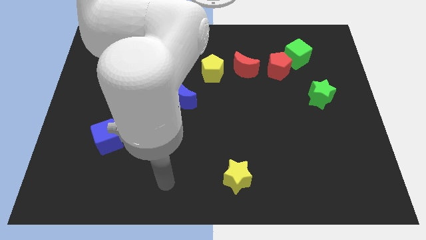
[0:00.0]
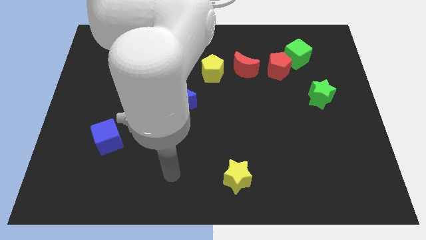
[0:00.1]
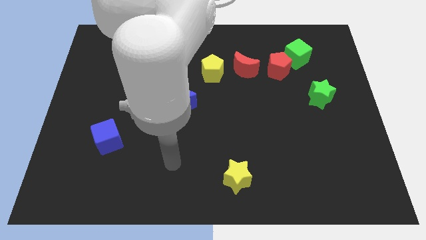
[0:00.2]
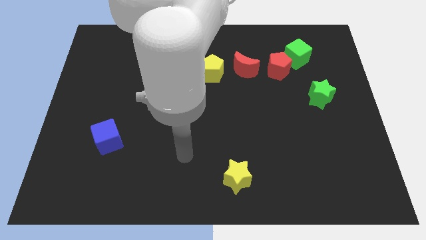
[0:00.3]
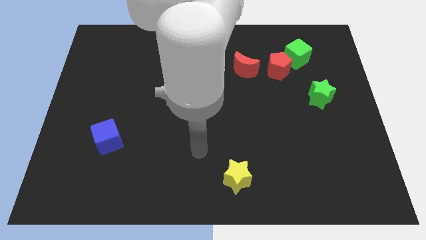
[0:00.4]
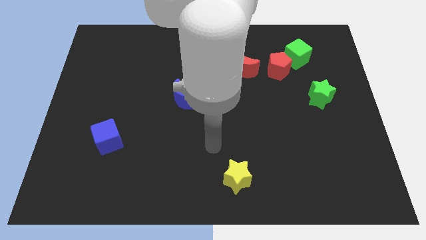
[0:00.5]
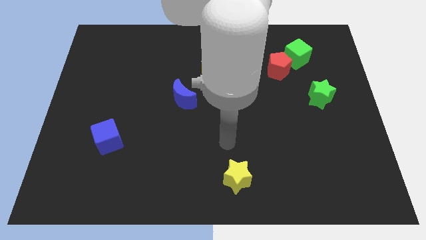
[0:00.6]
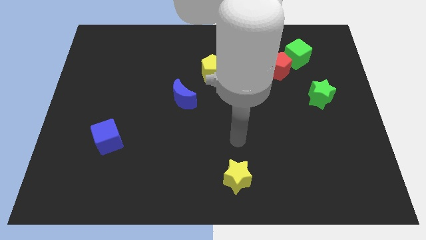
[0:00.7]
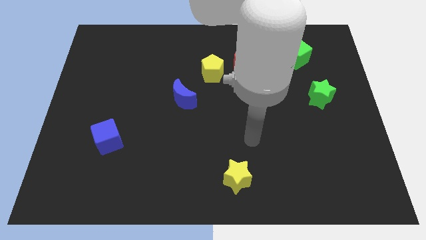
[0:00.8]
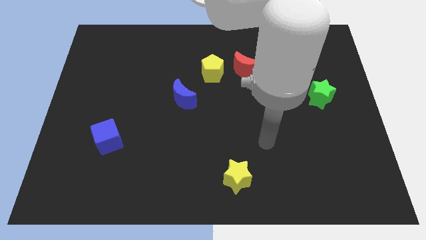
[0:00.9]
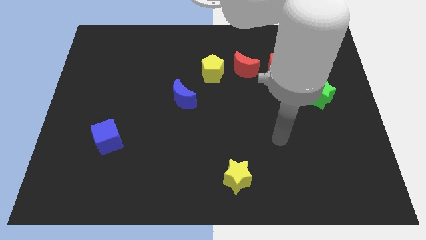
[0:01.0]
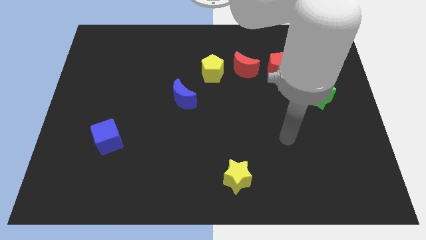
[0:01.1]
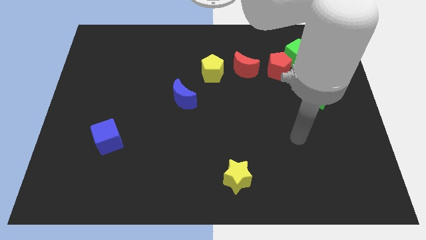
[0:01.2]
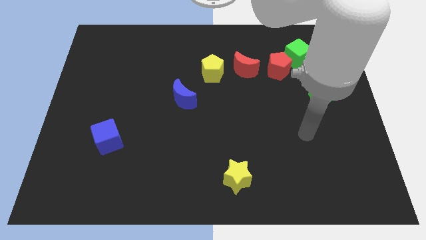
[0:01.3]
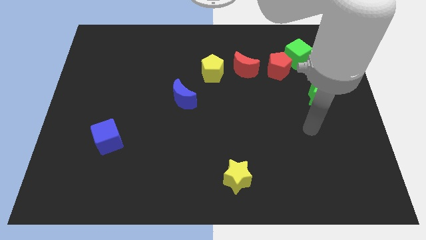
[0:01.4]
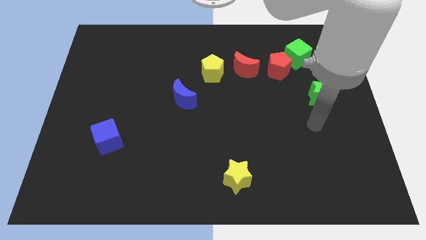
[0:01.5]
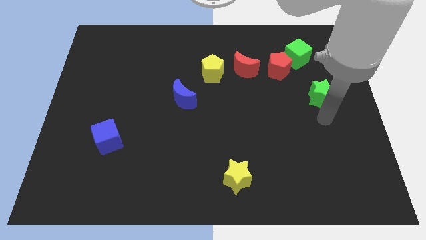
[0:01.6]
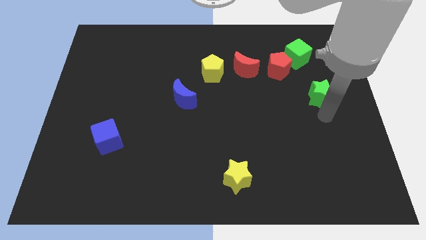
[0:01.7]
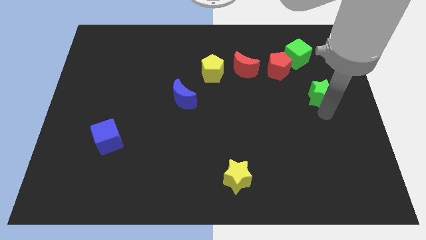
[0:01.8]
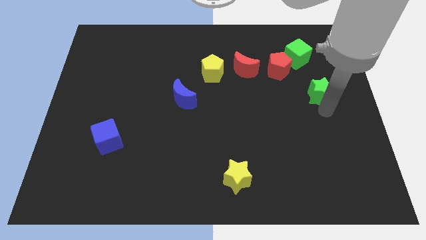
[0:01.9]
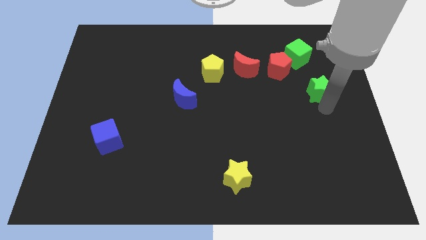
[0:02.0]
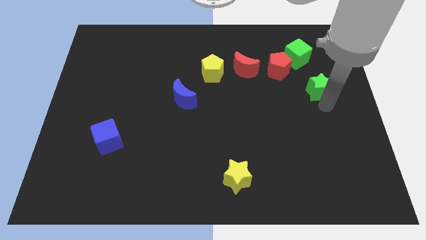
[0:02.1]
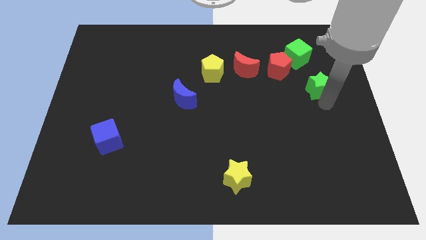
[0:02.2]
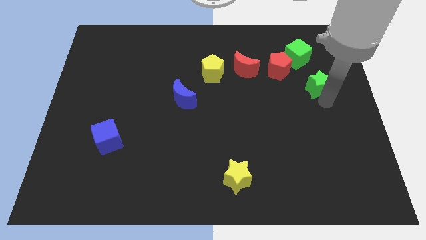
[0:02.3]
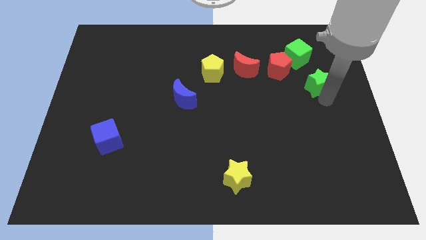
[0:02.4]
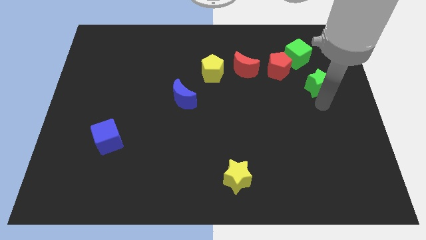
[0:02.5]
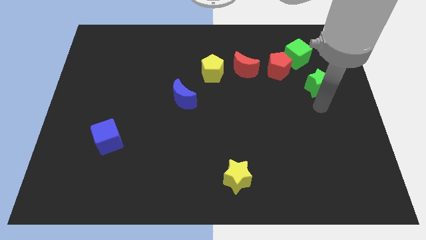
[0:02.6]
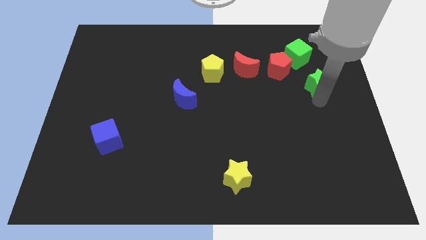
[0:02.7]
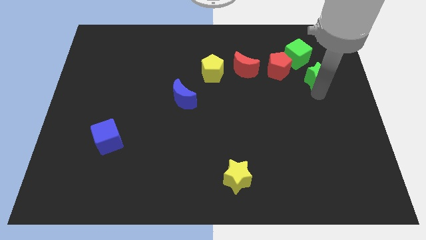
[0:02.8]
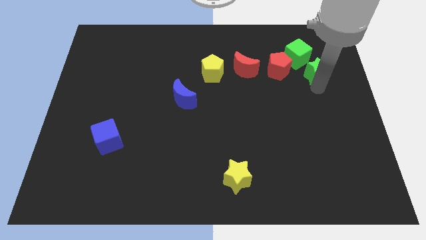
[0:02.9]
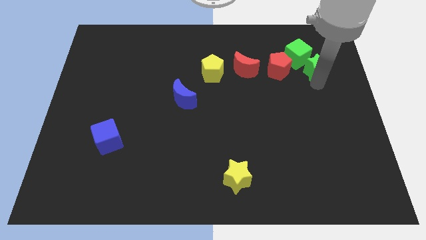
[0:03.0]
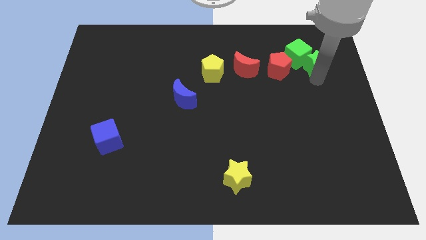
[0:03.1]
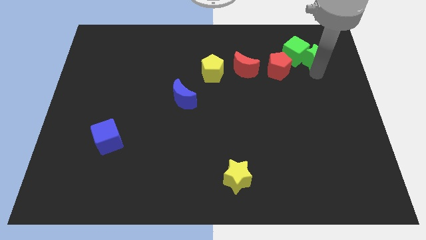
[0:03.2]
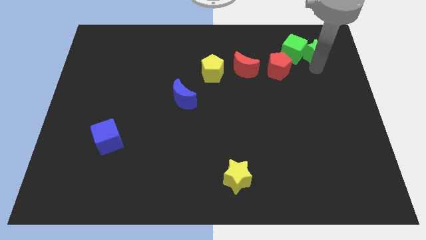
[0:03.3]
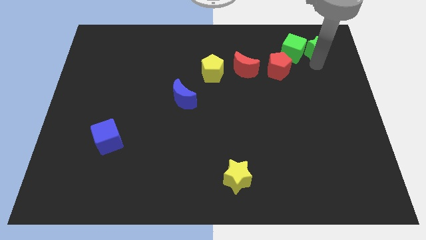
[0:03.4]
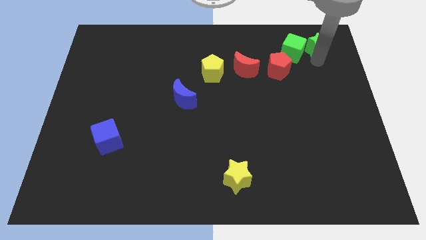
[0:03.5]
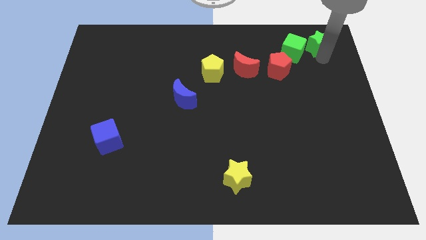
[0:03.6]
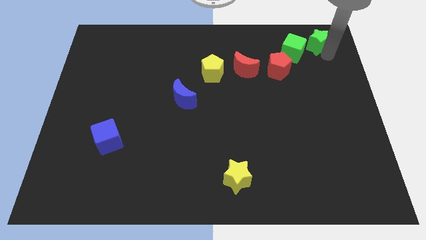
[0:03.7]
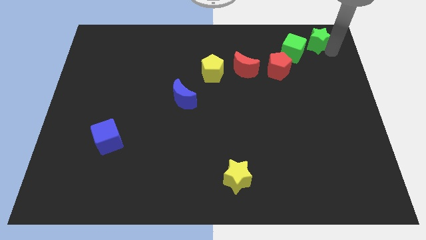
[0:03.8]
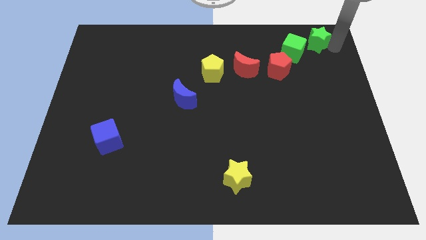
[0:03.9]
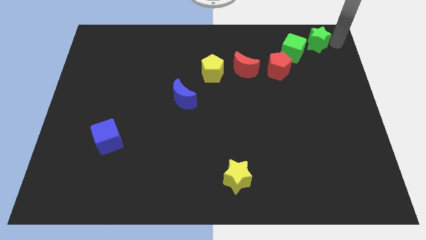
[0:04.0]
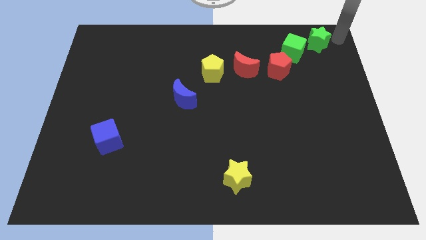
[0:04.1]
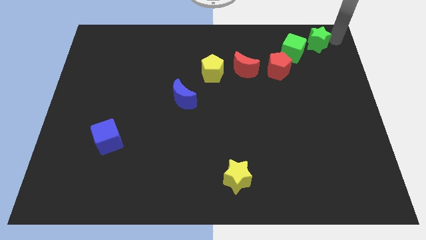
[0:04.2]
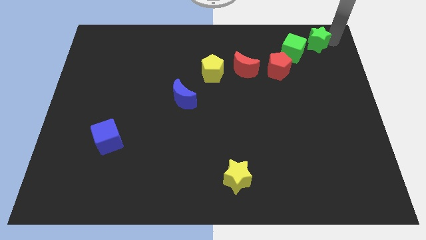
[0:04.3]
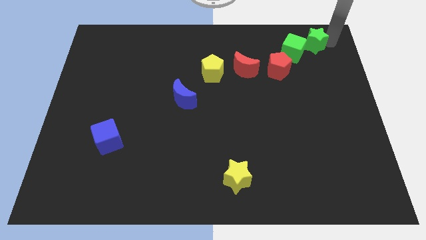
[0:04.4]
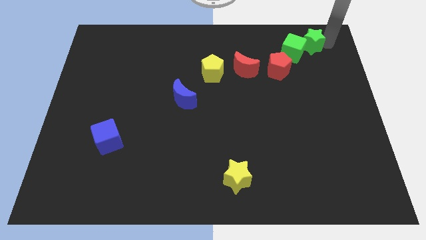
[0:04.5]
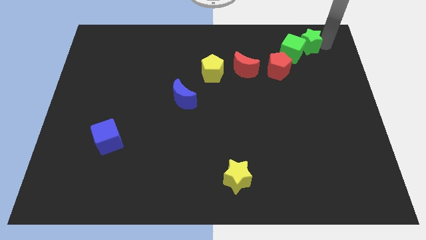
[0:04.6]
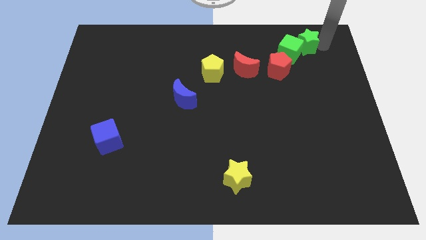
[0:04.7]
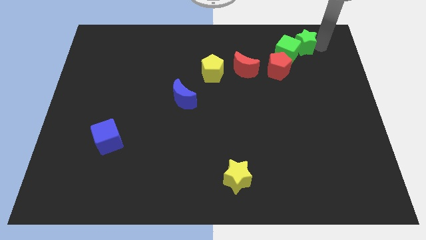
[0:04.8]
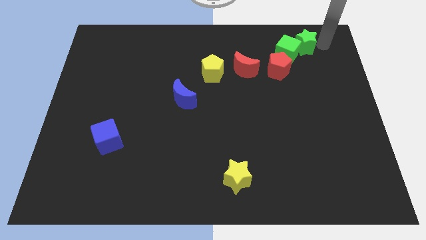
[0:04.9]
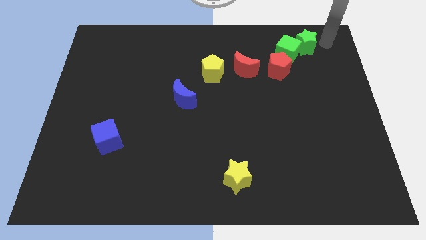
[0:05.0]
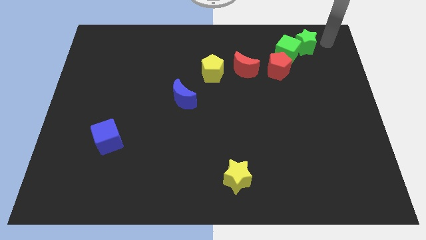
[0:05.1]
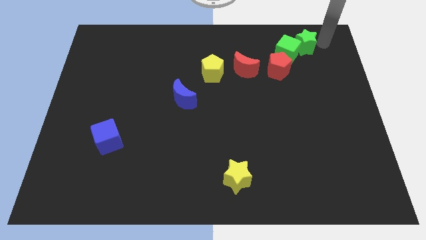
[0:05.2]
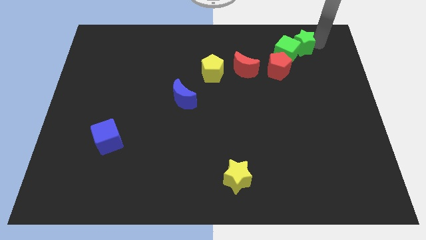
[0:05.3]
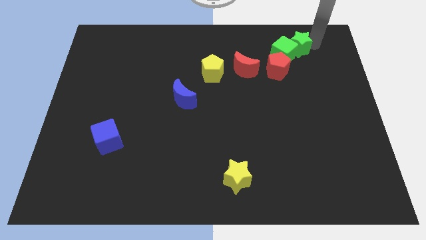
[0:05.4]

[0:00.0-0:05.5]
slightly push the green star up and then left

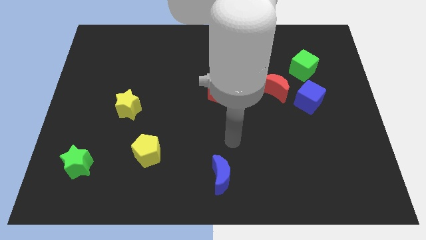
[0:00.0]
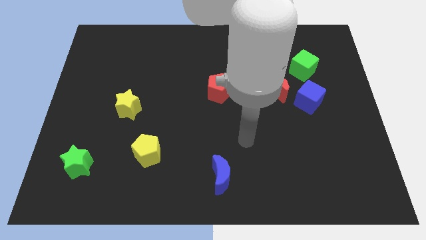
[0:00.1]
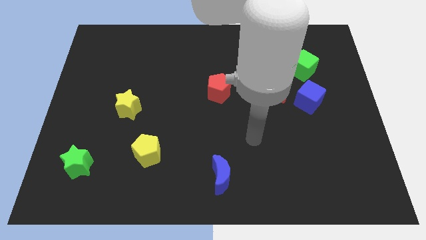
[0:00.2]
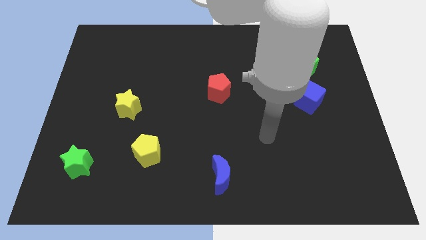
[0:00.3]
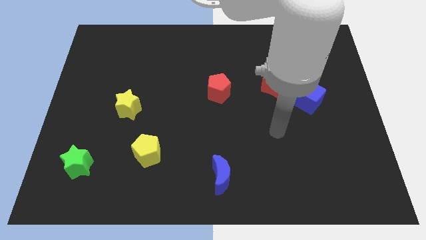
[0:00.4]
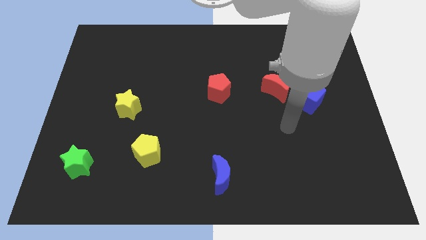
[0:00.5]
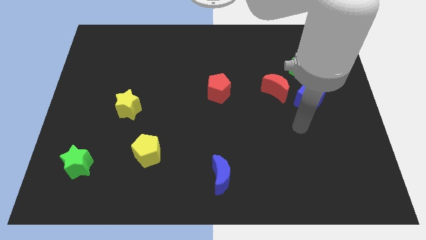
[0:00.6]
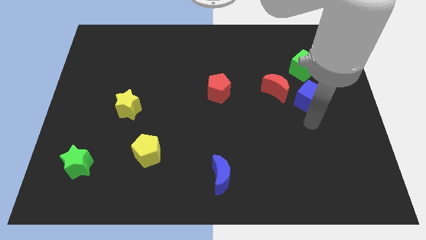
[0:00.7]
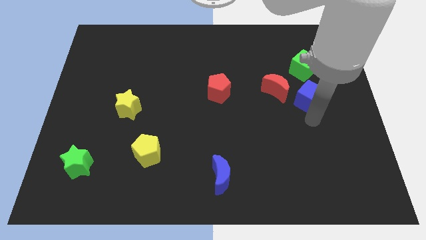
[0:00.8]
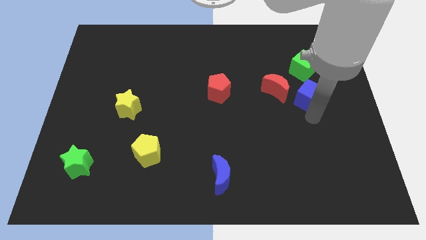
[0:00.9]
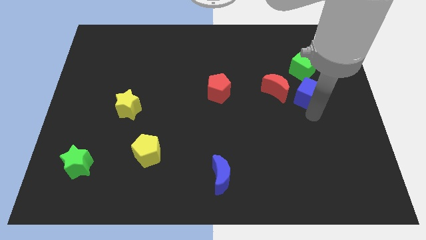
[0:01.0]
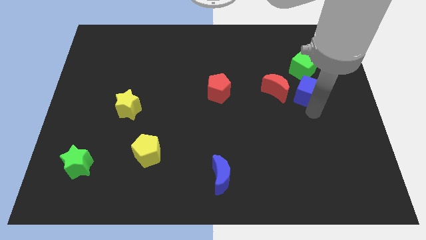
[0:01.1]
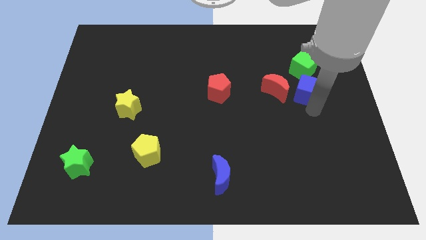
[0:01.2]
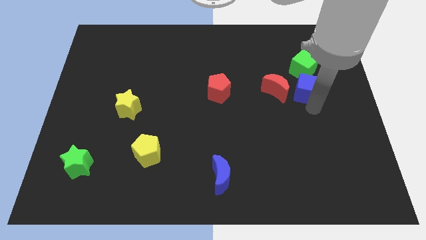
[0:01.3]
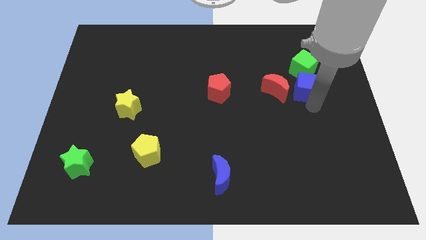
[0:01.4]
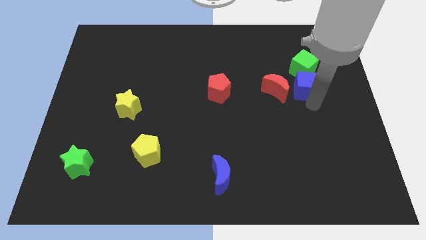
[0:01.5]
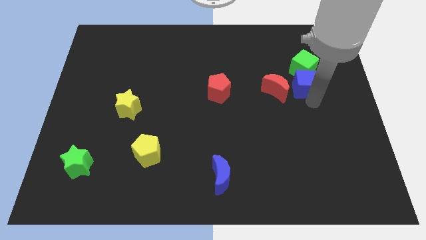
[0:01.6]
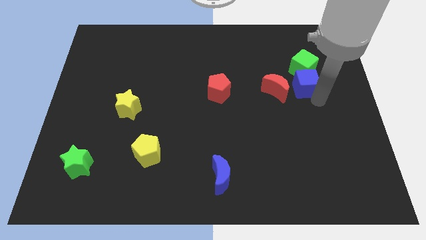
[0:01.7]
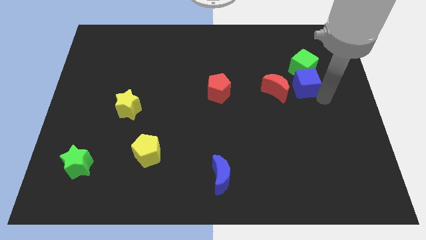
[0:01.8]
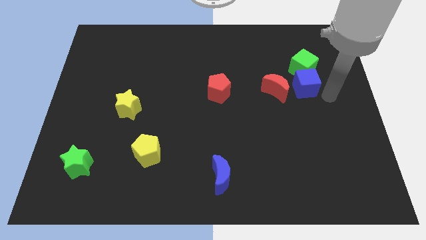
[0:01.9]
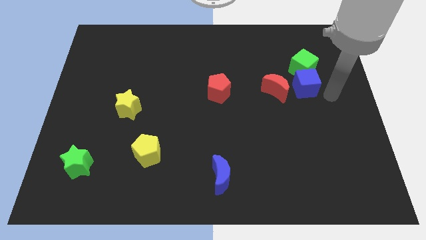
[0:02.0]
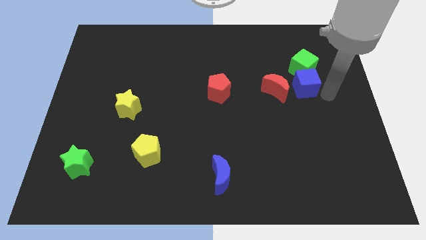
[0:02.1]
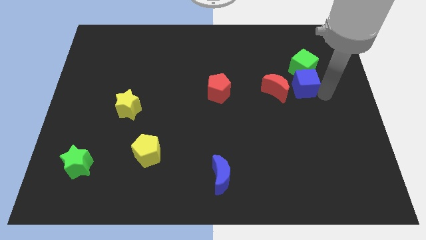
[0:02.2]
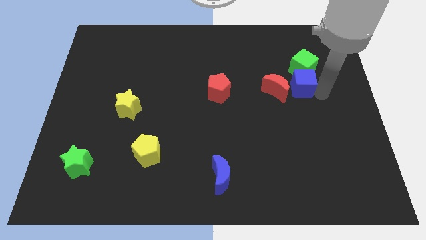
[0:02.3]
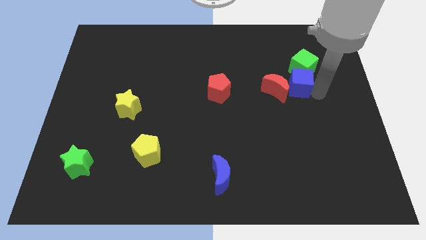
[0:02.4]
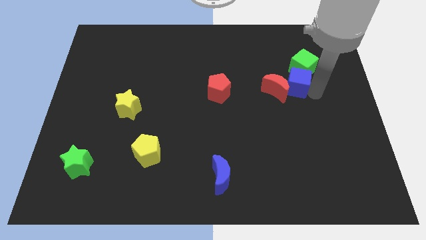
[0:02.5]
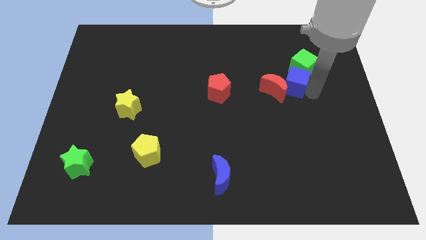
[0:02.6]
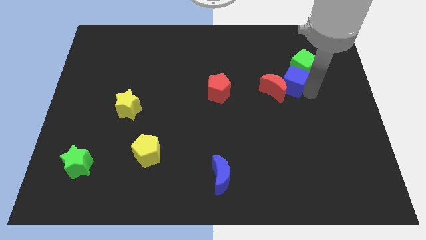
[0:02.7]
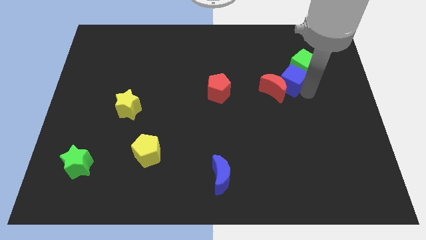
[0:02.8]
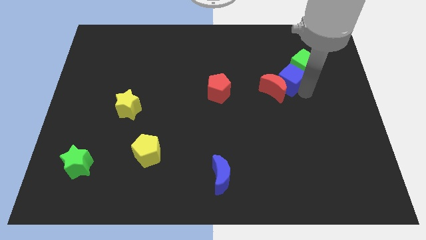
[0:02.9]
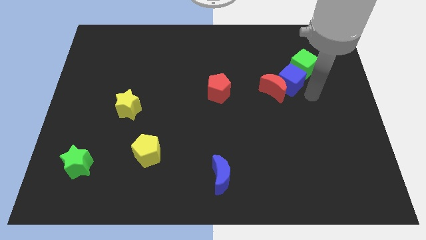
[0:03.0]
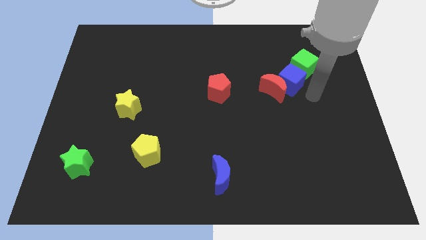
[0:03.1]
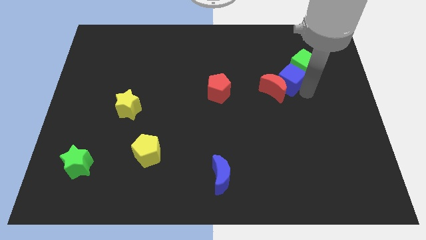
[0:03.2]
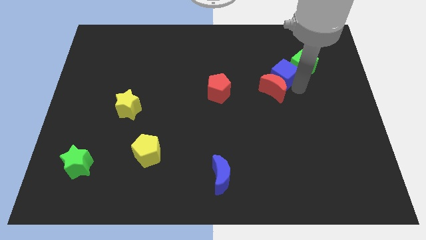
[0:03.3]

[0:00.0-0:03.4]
slightly move the blue cube up and to the left diagonally
